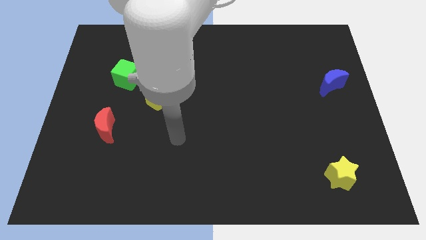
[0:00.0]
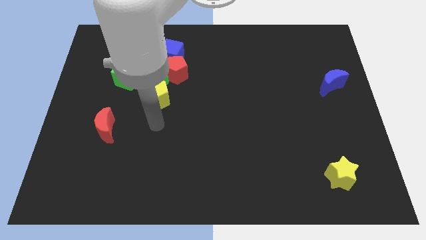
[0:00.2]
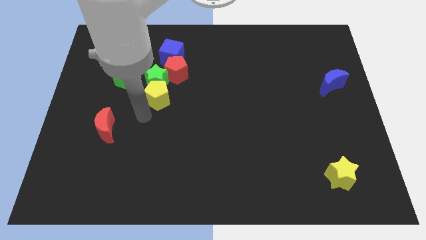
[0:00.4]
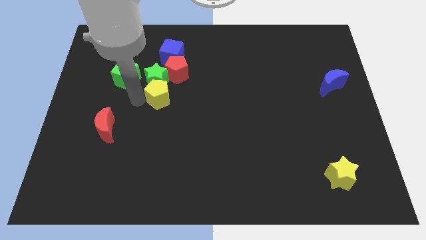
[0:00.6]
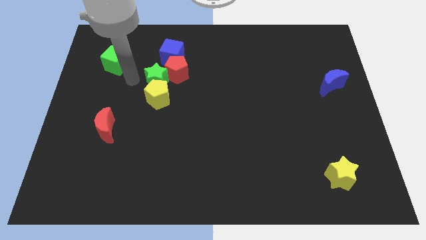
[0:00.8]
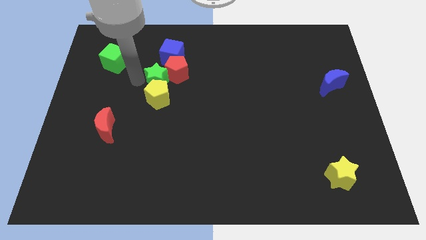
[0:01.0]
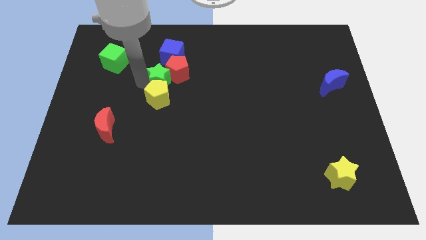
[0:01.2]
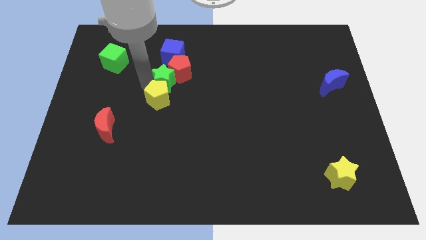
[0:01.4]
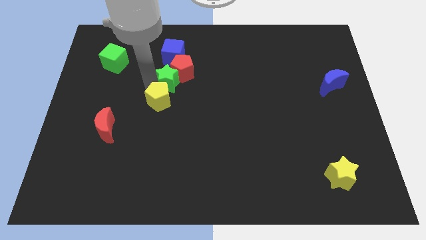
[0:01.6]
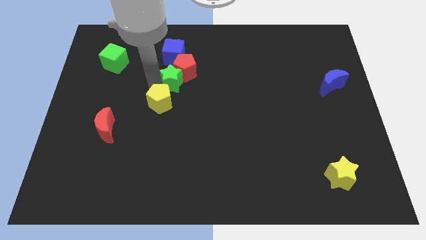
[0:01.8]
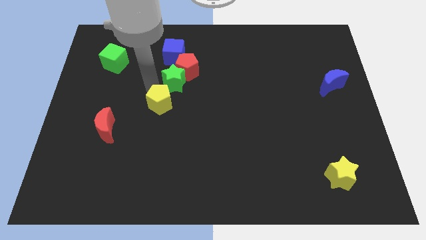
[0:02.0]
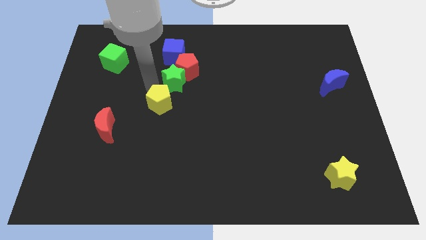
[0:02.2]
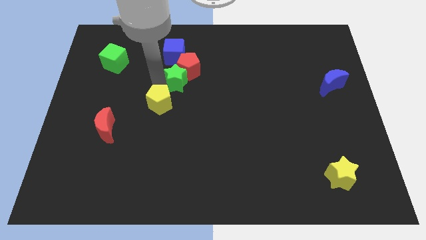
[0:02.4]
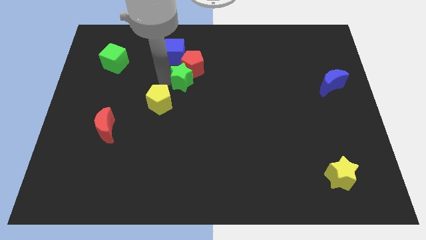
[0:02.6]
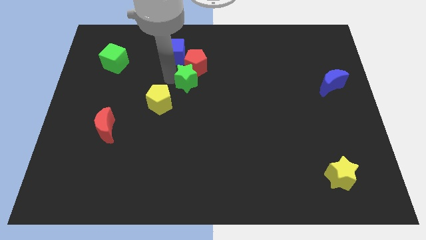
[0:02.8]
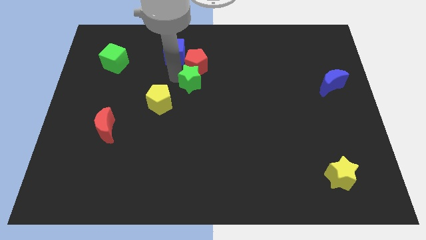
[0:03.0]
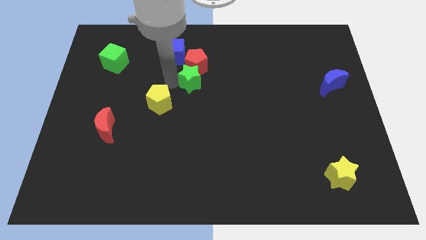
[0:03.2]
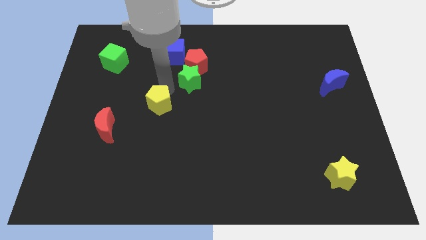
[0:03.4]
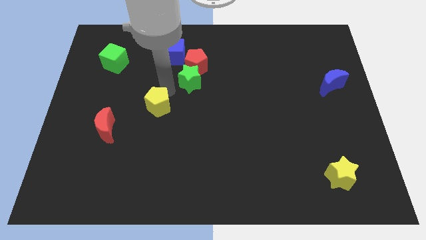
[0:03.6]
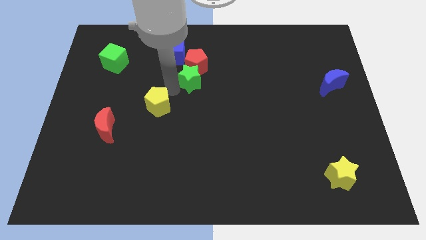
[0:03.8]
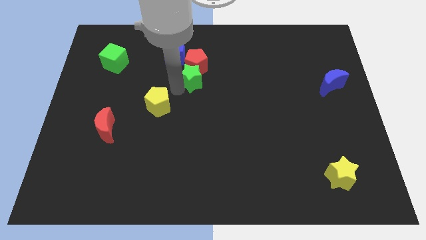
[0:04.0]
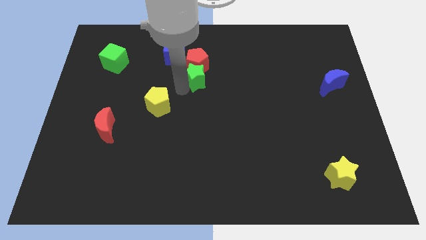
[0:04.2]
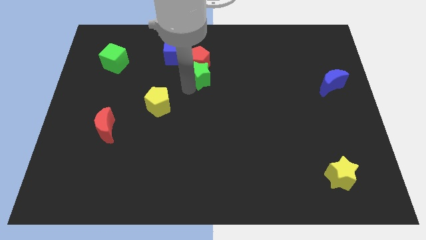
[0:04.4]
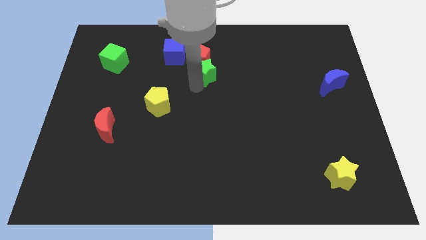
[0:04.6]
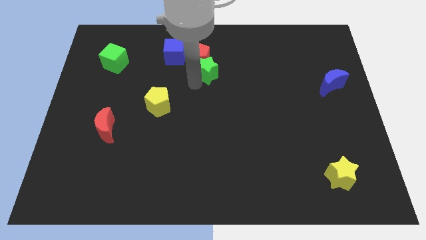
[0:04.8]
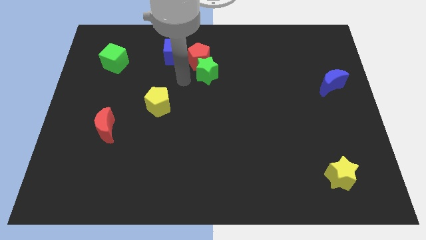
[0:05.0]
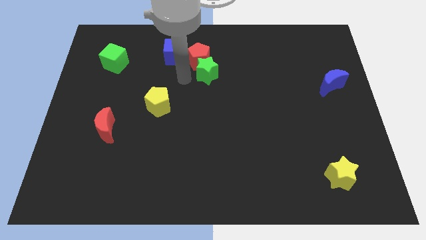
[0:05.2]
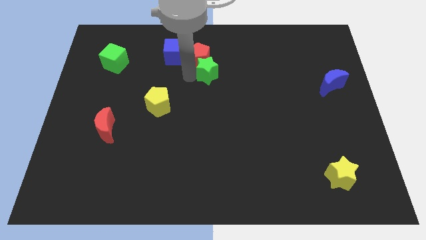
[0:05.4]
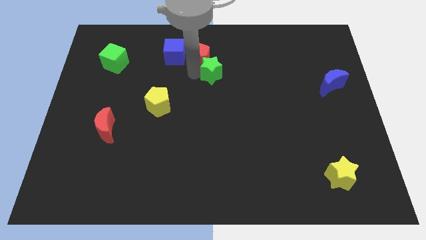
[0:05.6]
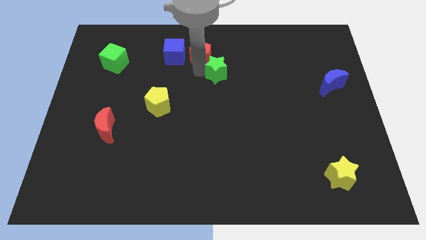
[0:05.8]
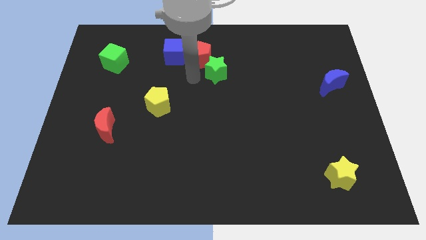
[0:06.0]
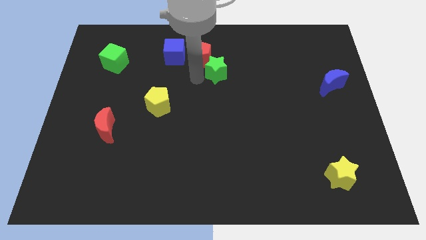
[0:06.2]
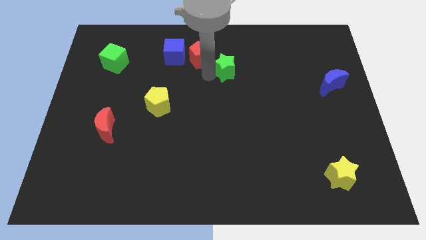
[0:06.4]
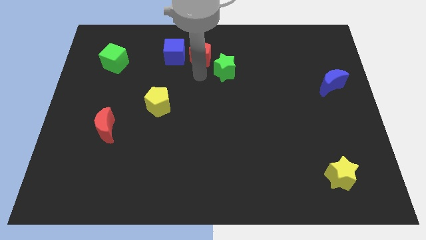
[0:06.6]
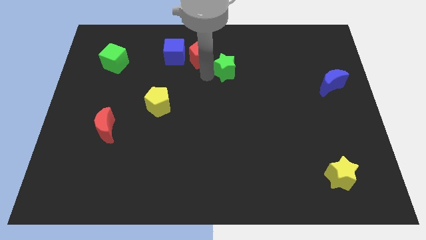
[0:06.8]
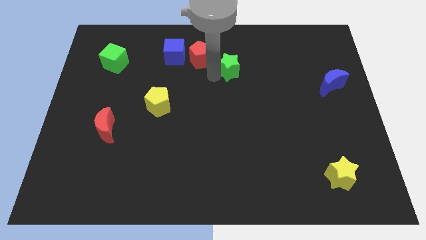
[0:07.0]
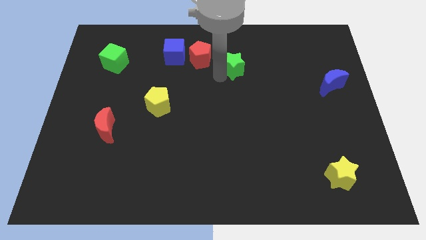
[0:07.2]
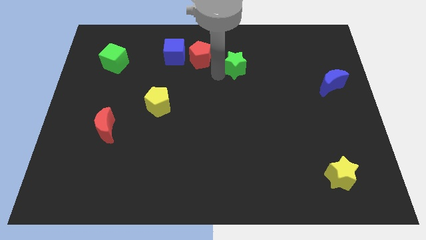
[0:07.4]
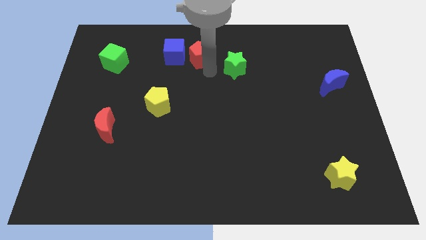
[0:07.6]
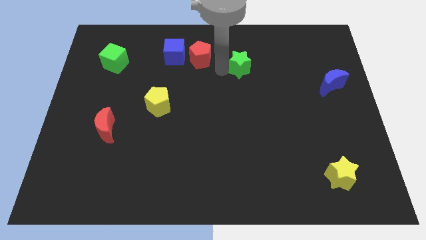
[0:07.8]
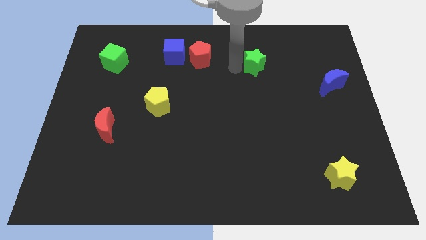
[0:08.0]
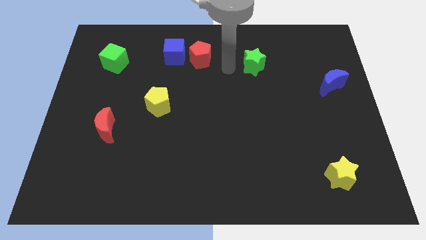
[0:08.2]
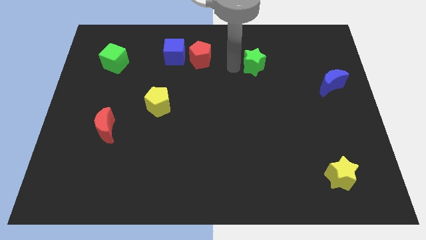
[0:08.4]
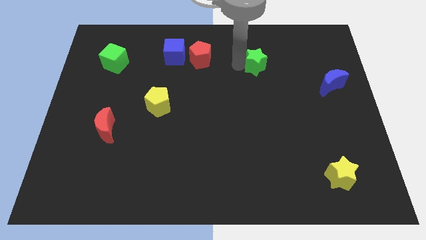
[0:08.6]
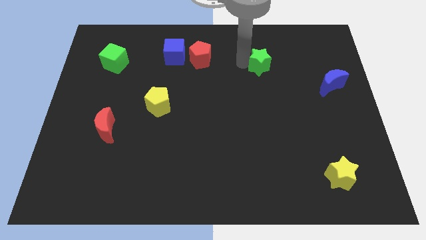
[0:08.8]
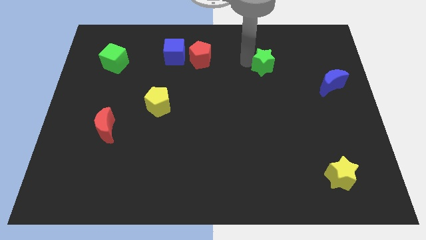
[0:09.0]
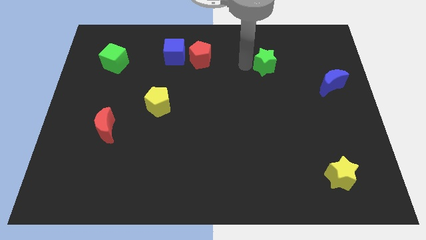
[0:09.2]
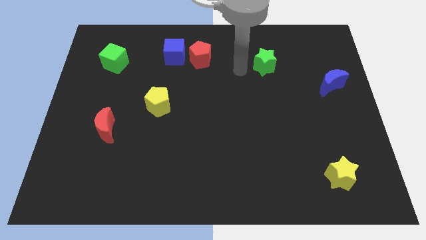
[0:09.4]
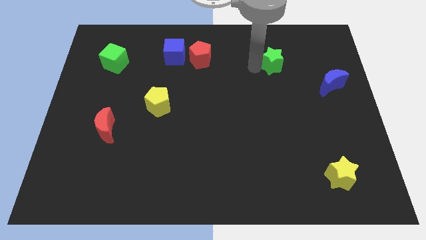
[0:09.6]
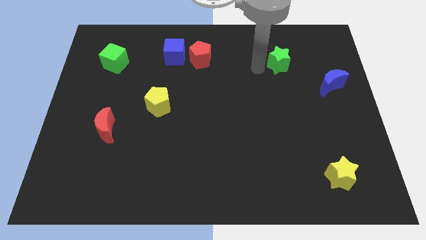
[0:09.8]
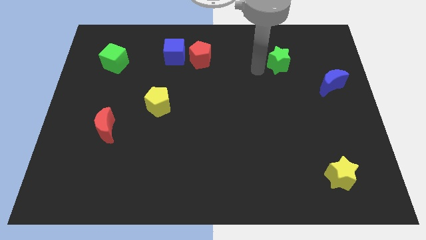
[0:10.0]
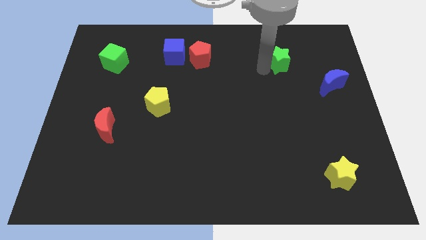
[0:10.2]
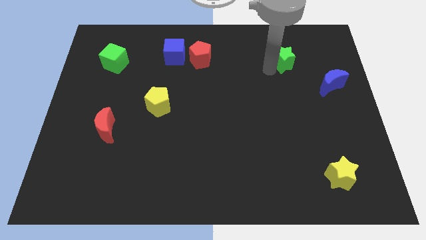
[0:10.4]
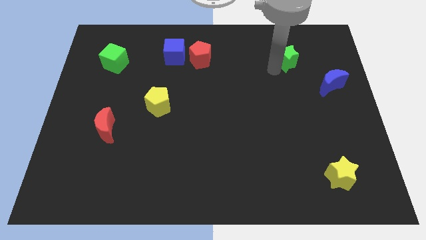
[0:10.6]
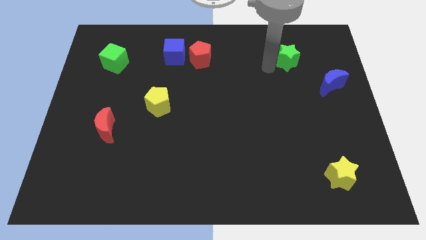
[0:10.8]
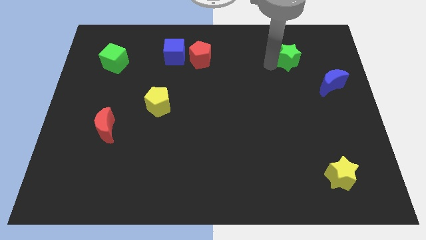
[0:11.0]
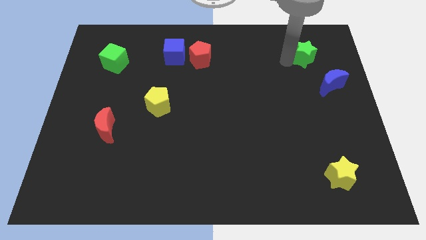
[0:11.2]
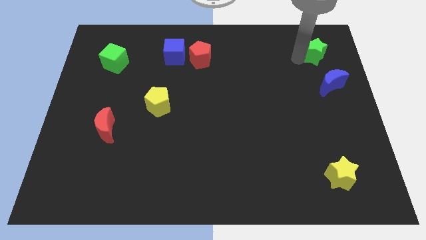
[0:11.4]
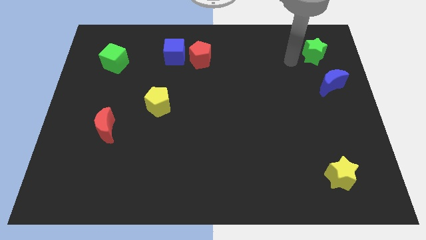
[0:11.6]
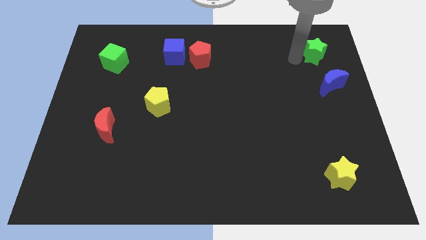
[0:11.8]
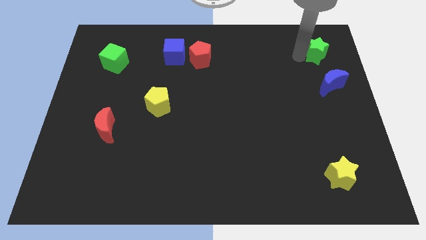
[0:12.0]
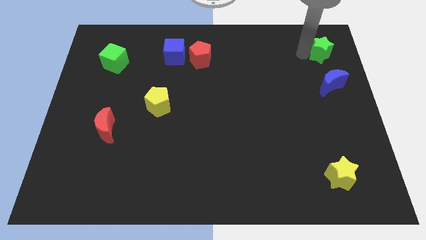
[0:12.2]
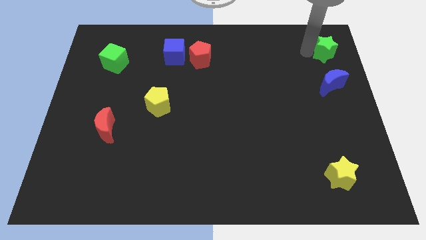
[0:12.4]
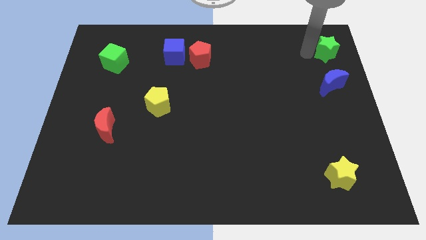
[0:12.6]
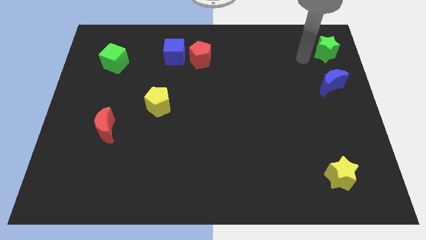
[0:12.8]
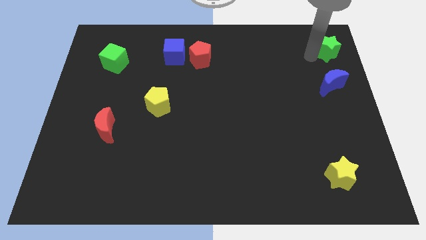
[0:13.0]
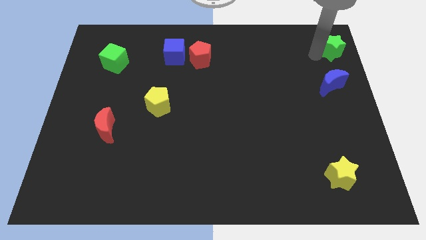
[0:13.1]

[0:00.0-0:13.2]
slide the green star to the top right
